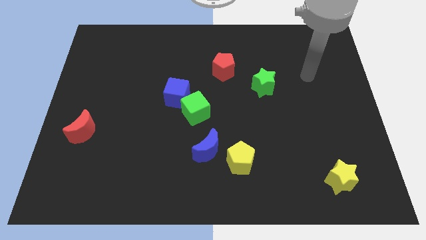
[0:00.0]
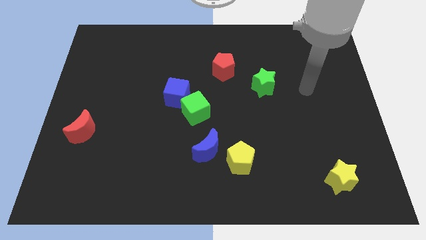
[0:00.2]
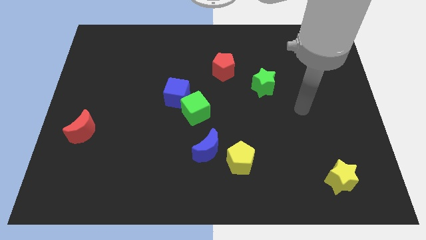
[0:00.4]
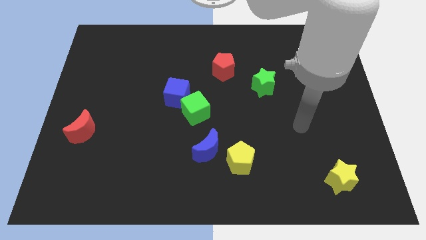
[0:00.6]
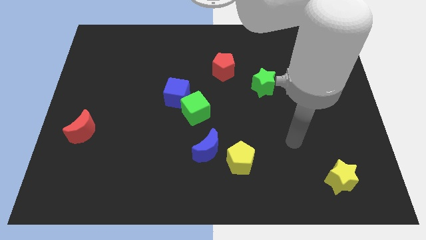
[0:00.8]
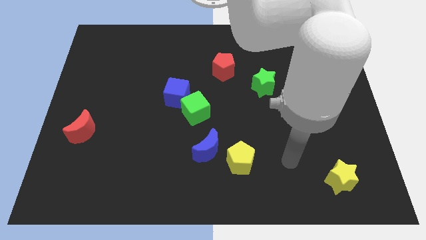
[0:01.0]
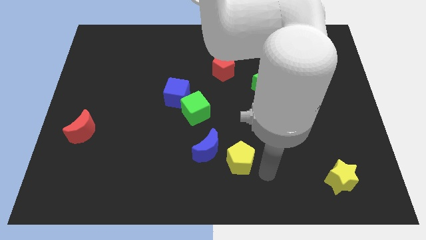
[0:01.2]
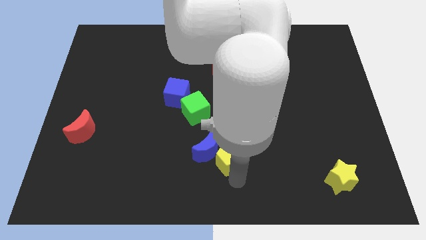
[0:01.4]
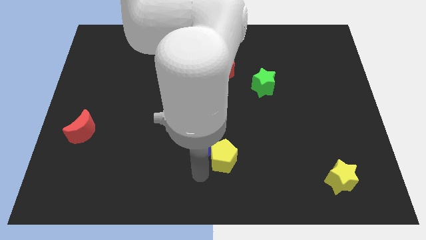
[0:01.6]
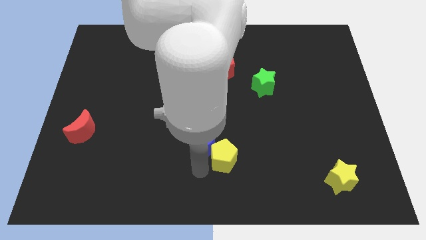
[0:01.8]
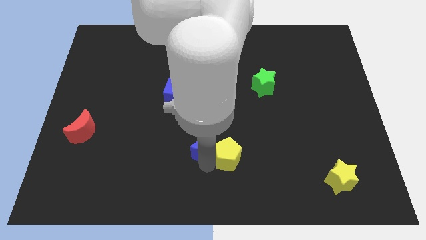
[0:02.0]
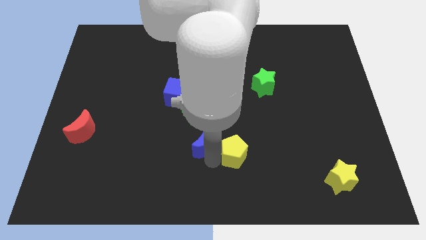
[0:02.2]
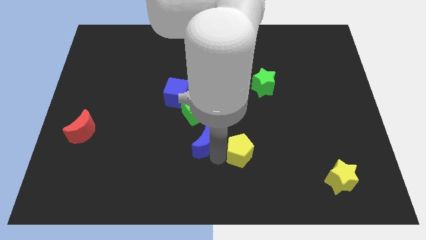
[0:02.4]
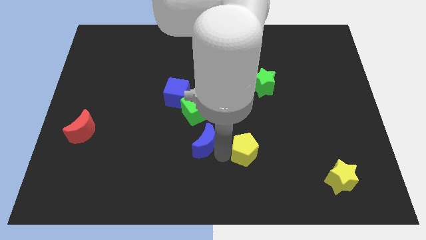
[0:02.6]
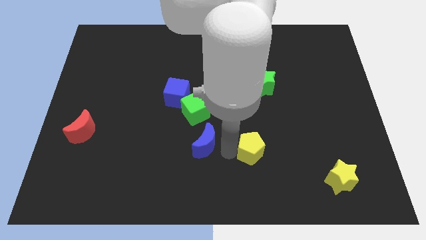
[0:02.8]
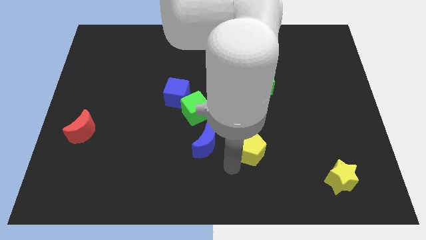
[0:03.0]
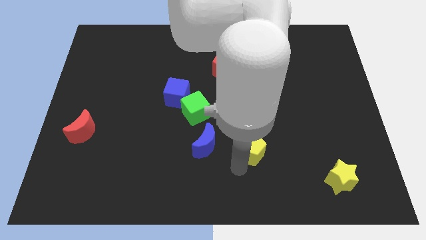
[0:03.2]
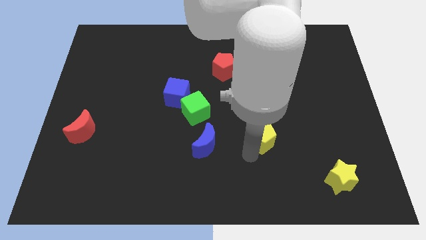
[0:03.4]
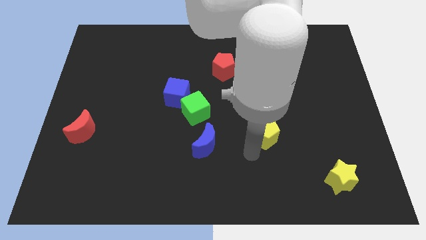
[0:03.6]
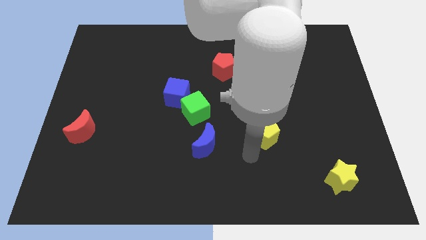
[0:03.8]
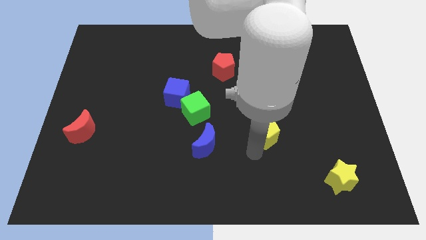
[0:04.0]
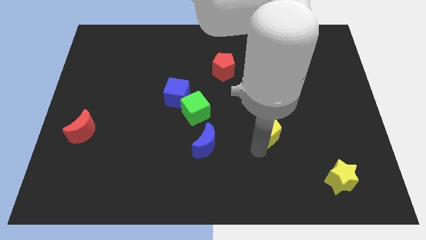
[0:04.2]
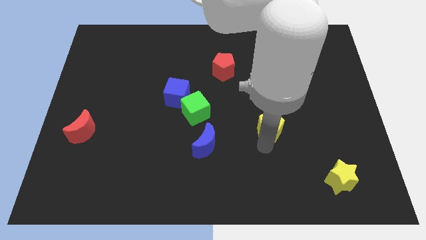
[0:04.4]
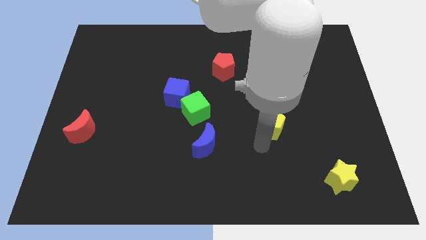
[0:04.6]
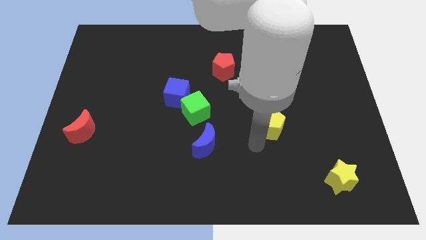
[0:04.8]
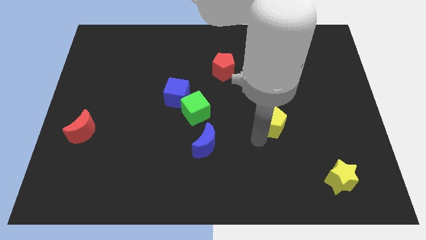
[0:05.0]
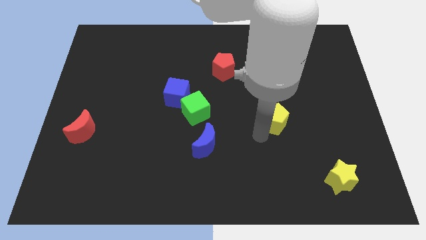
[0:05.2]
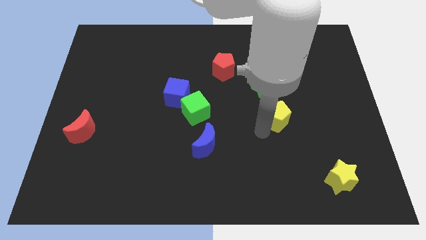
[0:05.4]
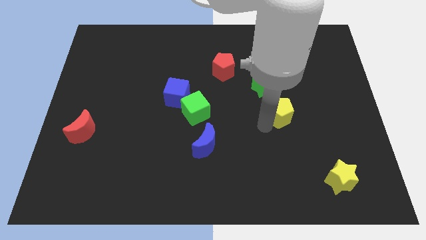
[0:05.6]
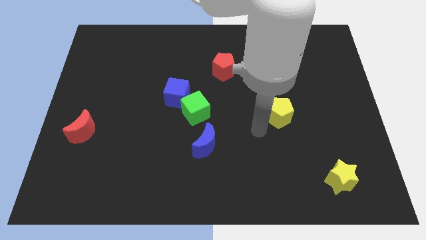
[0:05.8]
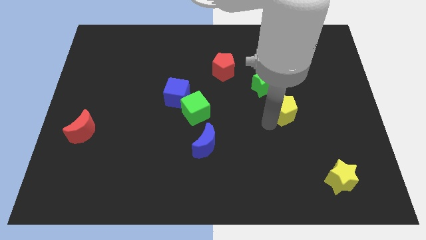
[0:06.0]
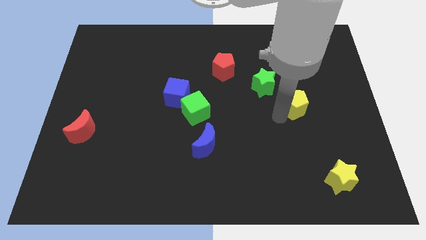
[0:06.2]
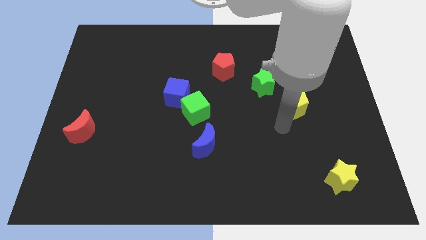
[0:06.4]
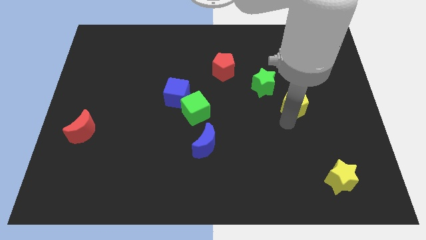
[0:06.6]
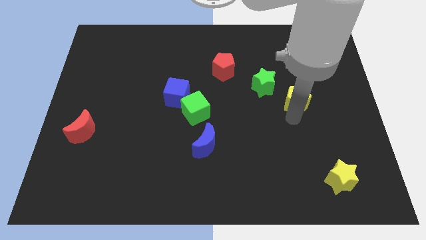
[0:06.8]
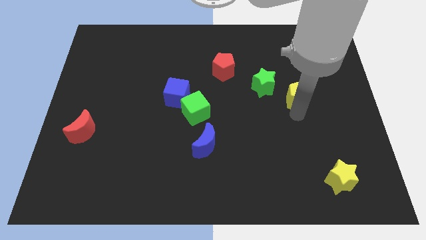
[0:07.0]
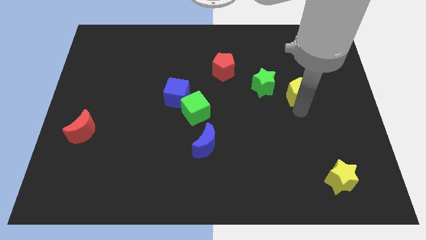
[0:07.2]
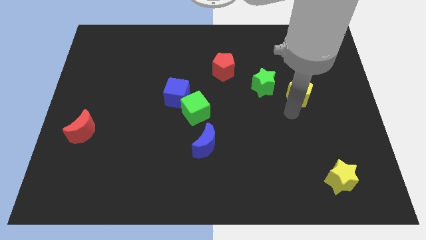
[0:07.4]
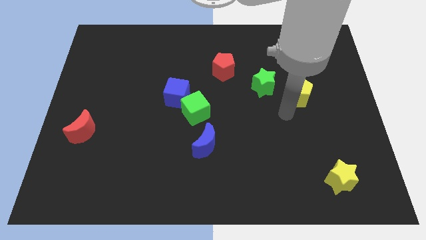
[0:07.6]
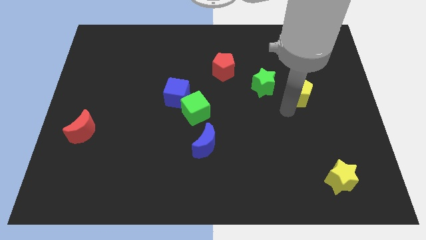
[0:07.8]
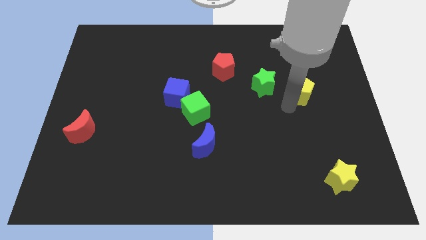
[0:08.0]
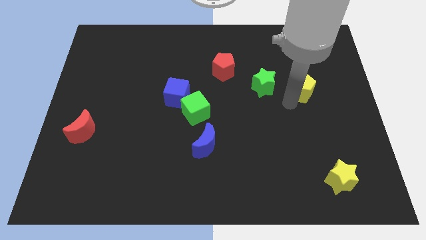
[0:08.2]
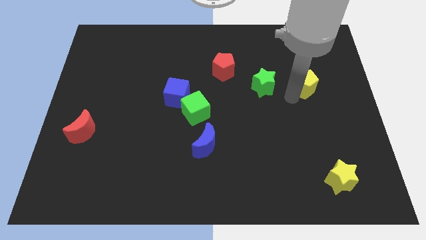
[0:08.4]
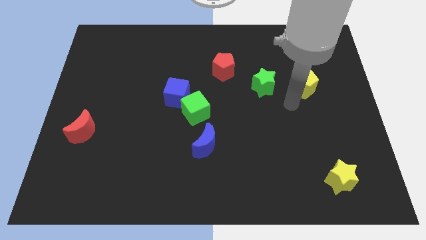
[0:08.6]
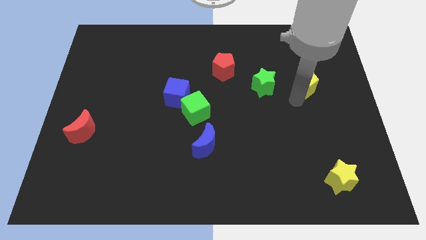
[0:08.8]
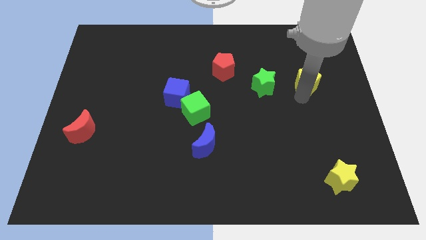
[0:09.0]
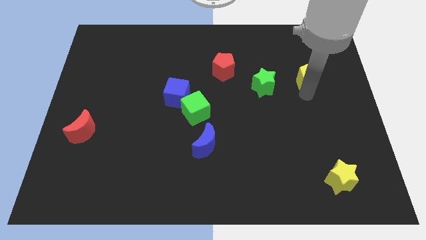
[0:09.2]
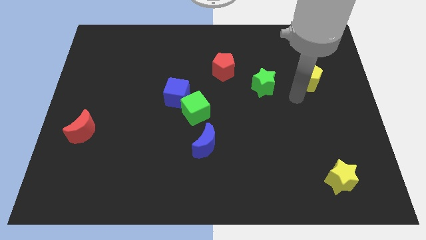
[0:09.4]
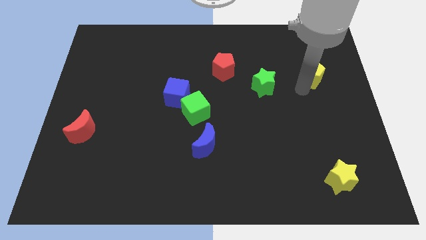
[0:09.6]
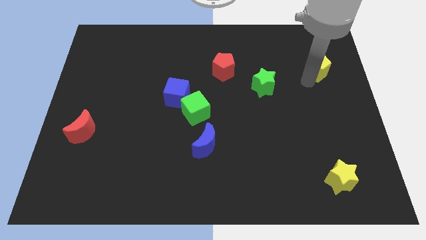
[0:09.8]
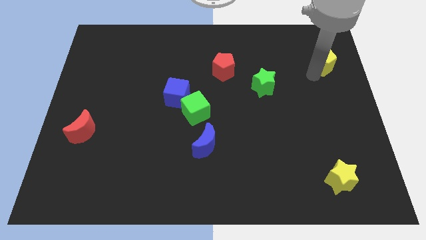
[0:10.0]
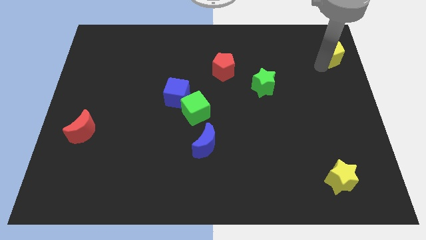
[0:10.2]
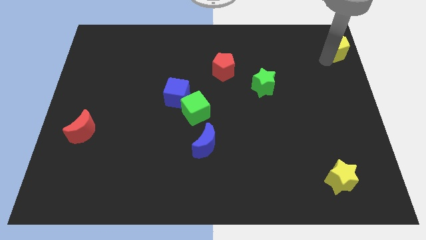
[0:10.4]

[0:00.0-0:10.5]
put the yellow pentagon to the top right

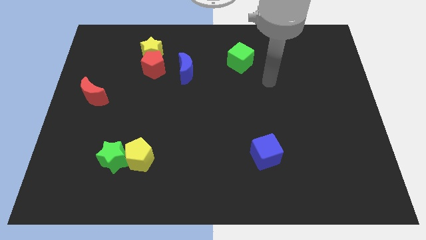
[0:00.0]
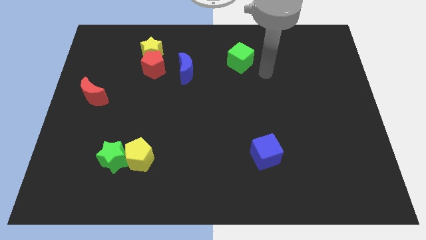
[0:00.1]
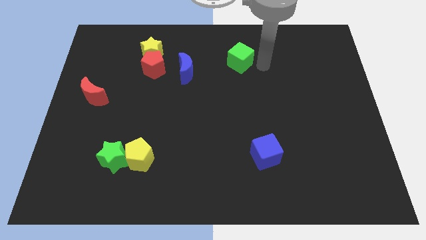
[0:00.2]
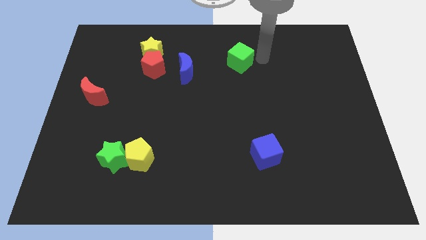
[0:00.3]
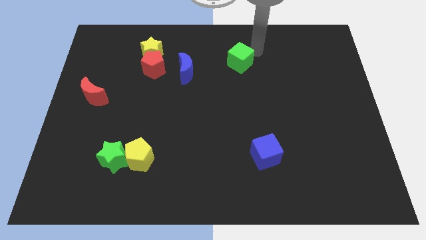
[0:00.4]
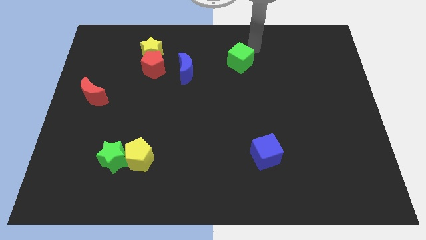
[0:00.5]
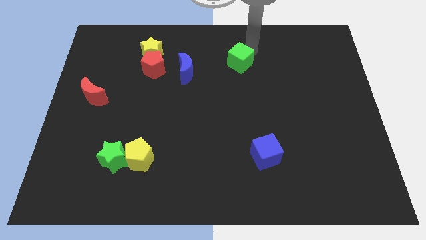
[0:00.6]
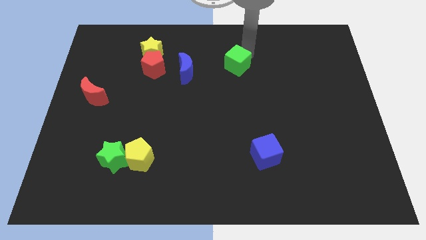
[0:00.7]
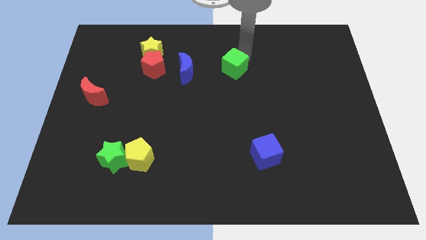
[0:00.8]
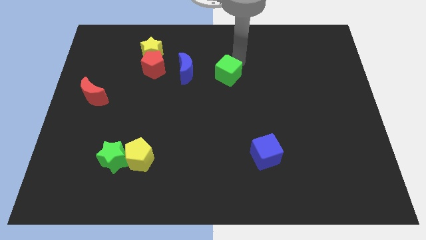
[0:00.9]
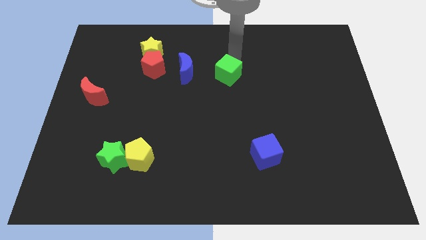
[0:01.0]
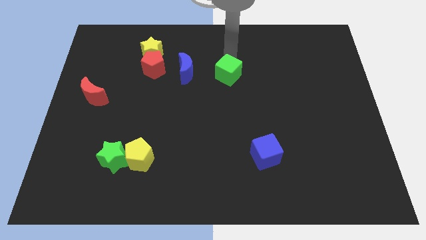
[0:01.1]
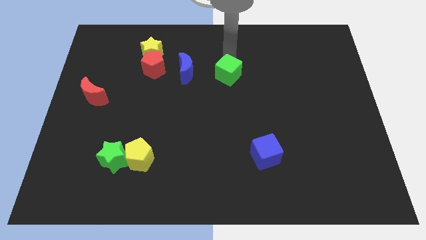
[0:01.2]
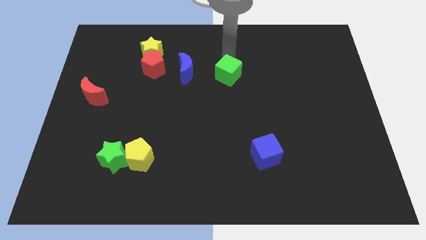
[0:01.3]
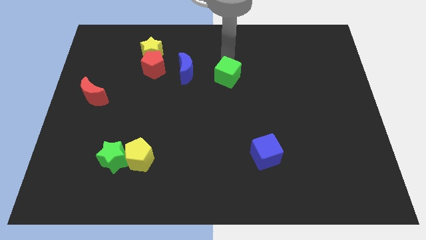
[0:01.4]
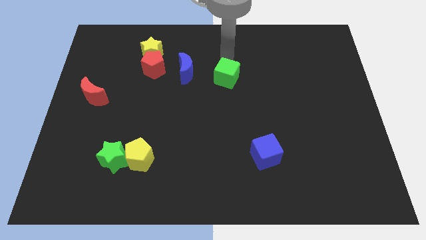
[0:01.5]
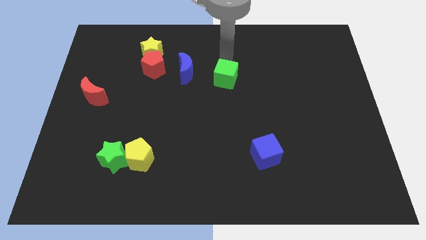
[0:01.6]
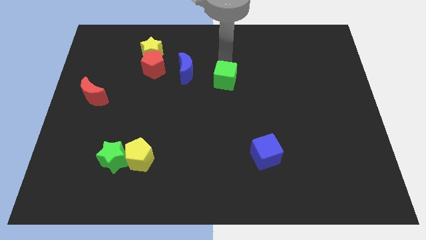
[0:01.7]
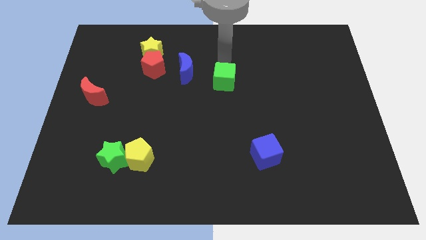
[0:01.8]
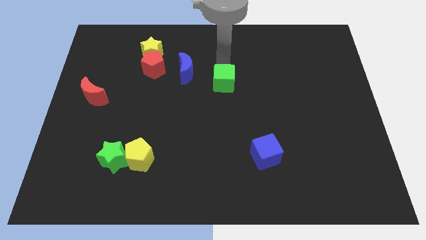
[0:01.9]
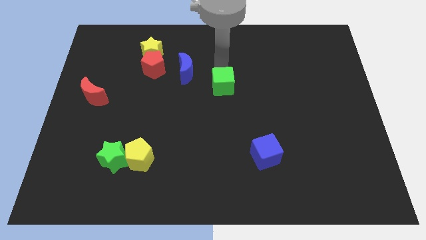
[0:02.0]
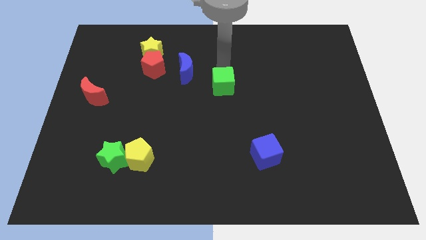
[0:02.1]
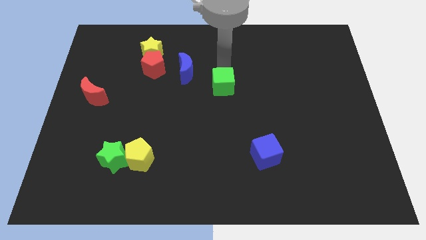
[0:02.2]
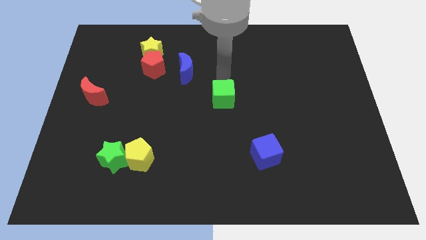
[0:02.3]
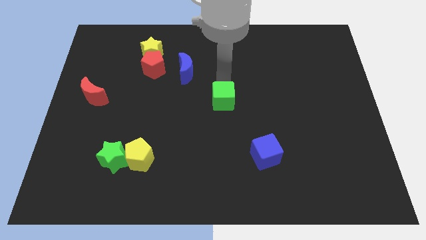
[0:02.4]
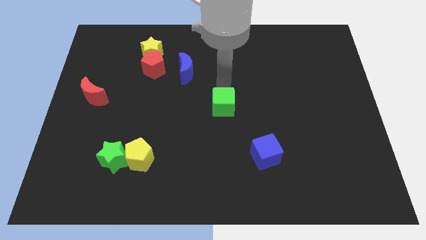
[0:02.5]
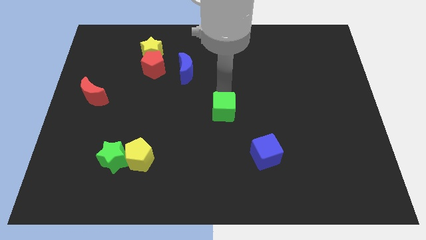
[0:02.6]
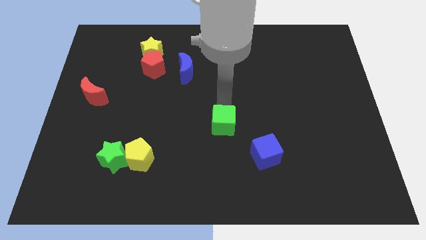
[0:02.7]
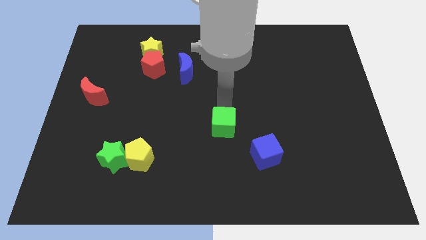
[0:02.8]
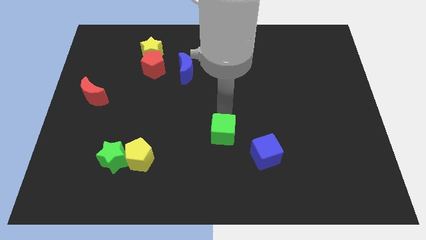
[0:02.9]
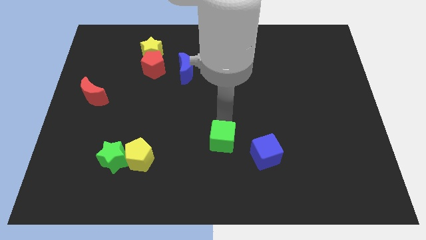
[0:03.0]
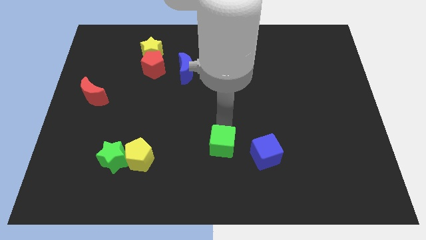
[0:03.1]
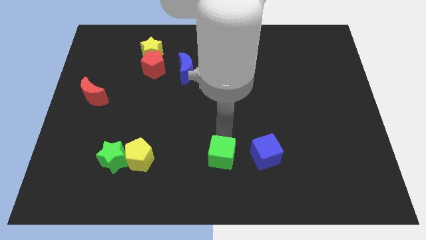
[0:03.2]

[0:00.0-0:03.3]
slide the green cube to the bottom
